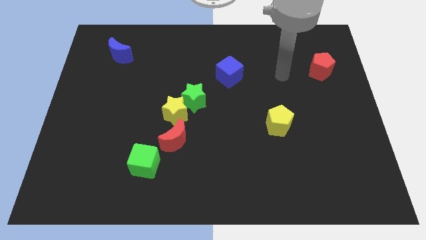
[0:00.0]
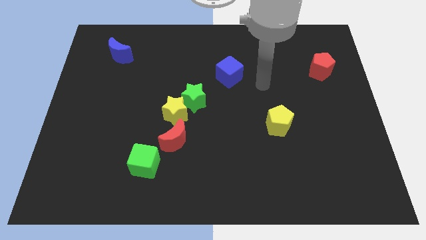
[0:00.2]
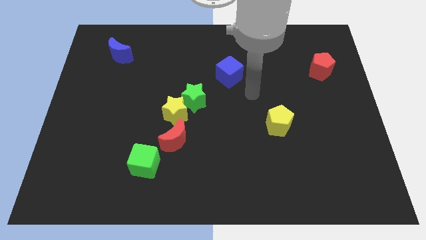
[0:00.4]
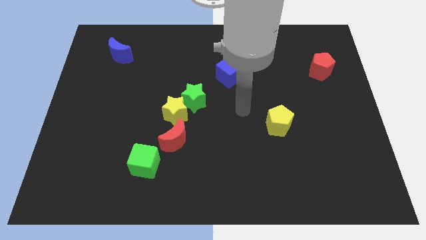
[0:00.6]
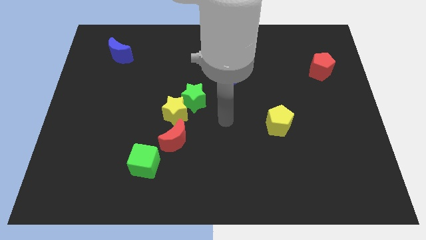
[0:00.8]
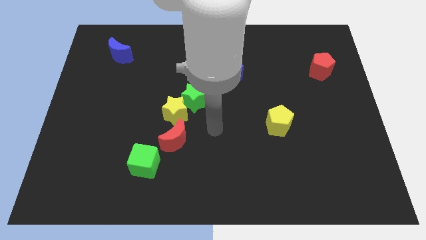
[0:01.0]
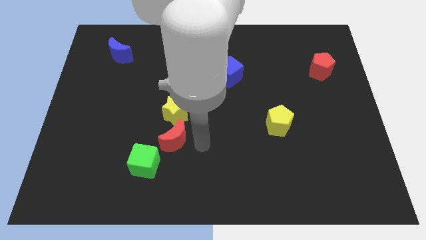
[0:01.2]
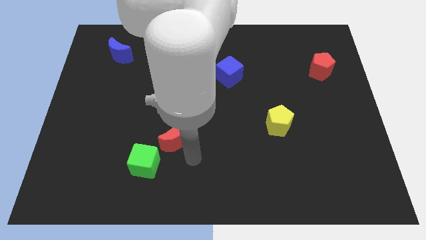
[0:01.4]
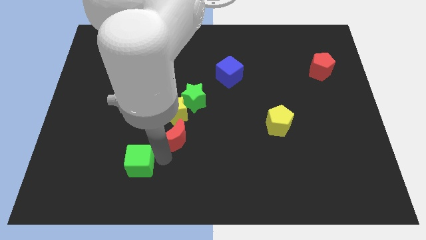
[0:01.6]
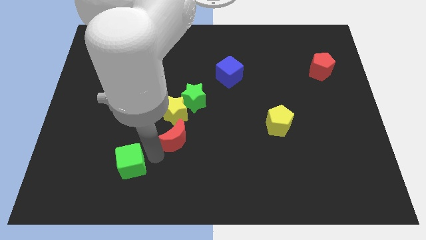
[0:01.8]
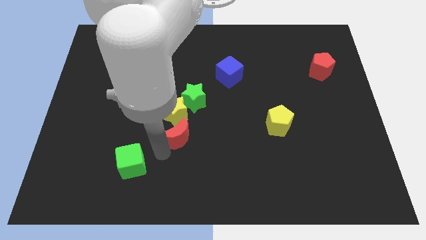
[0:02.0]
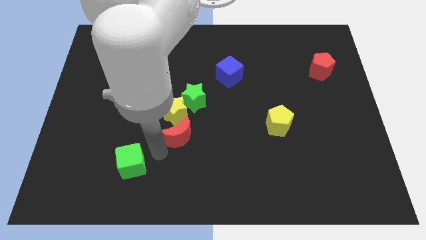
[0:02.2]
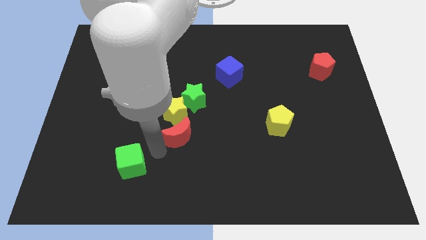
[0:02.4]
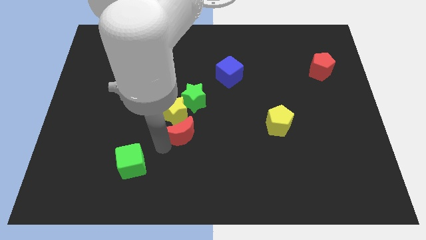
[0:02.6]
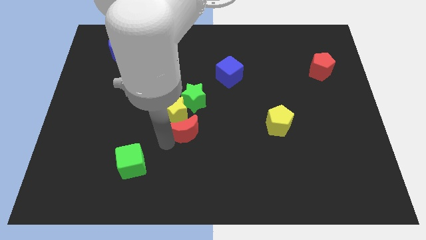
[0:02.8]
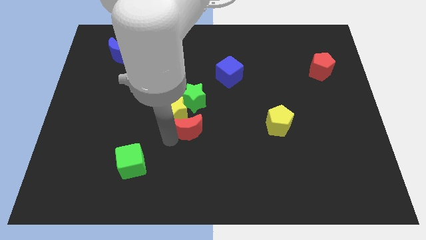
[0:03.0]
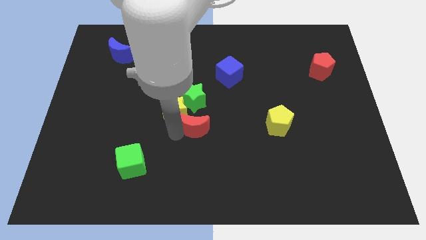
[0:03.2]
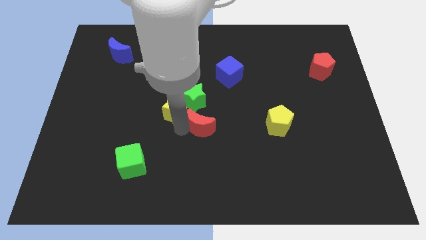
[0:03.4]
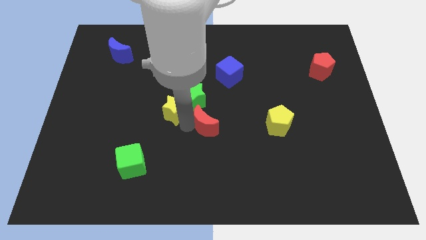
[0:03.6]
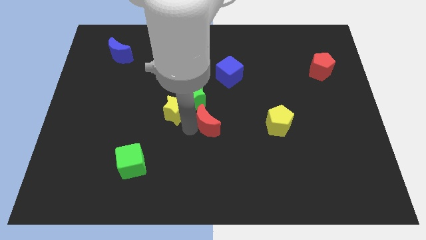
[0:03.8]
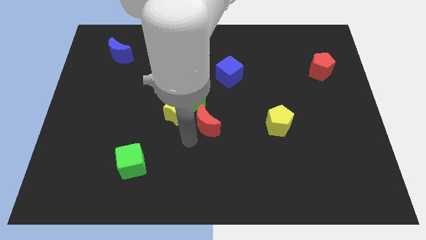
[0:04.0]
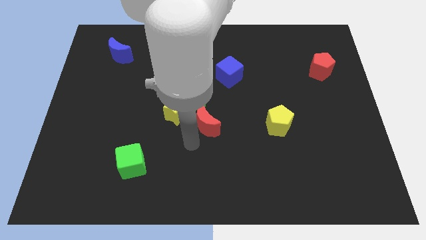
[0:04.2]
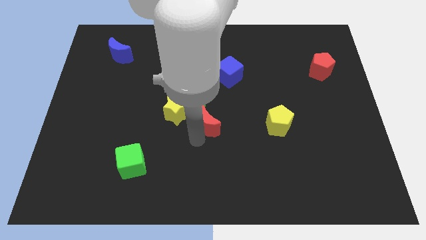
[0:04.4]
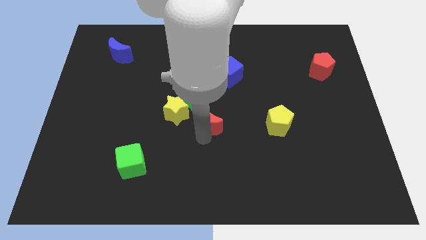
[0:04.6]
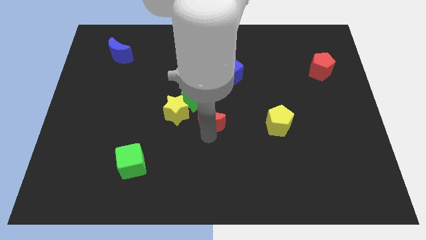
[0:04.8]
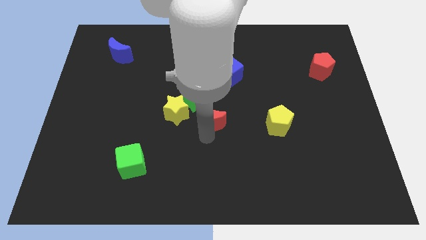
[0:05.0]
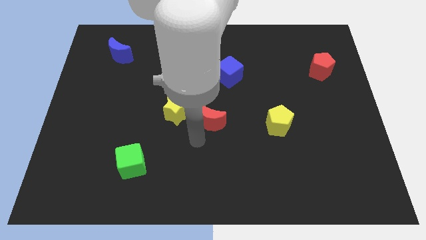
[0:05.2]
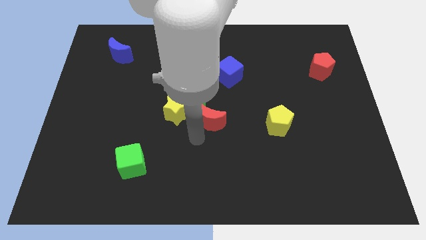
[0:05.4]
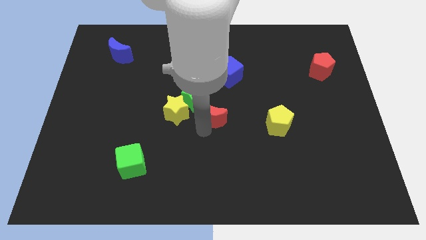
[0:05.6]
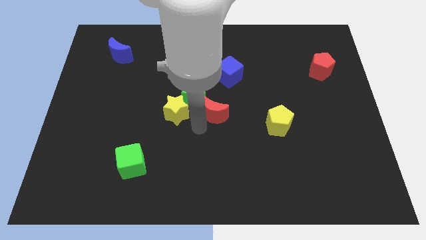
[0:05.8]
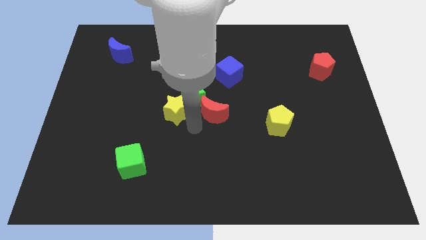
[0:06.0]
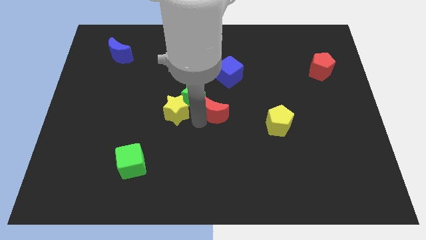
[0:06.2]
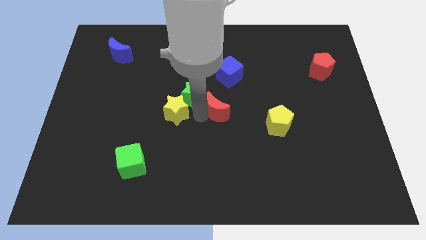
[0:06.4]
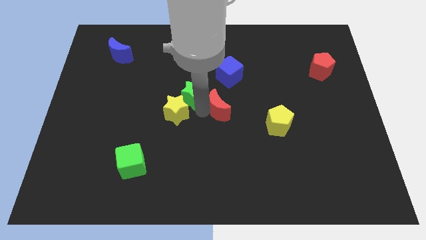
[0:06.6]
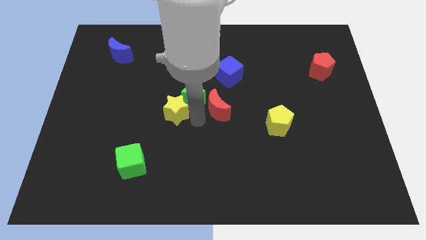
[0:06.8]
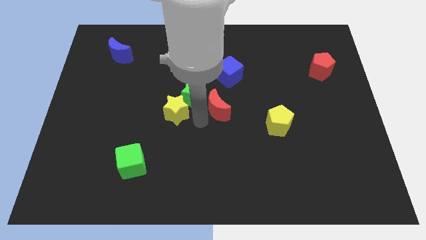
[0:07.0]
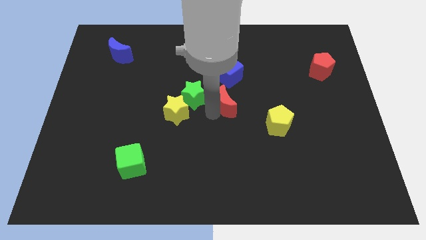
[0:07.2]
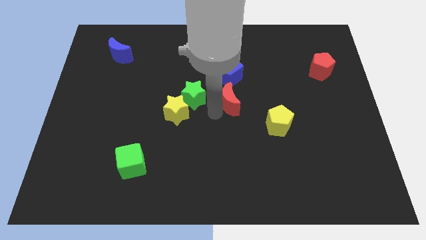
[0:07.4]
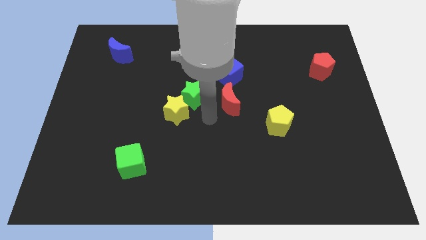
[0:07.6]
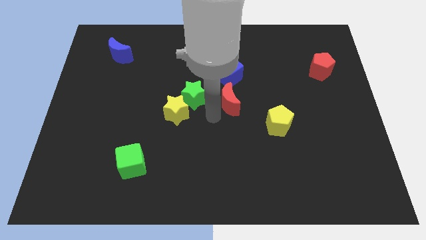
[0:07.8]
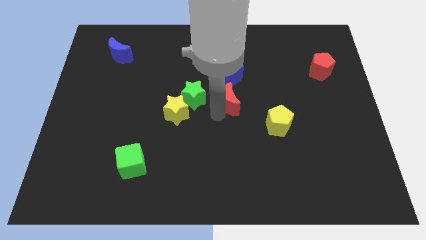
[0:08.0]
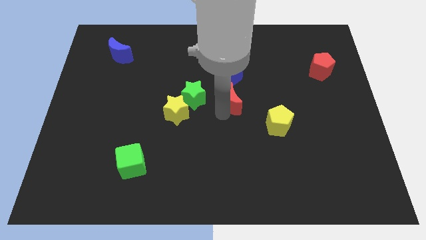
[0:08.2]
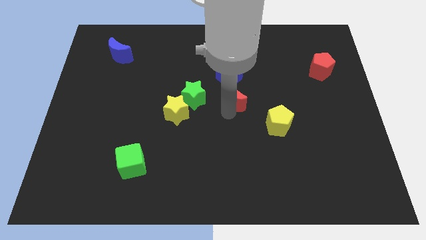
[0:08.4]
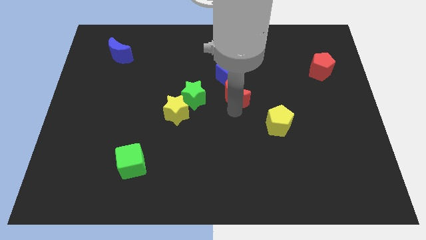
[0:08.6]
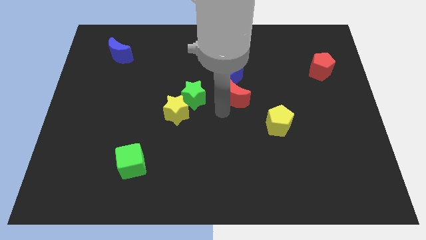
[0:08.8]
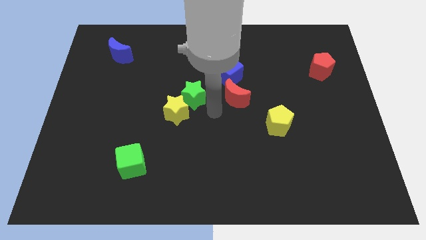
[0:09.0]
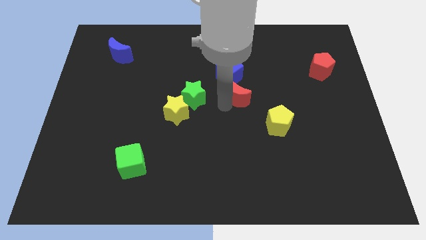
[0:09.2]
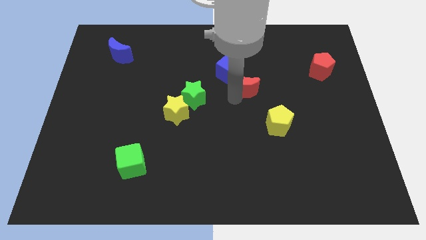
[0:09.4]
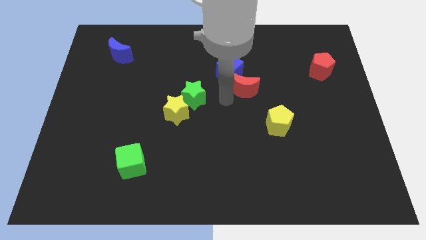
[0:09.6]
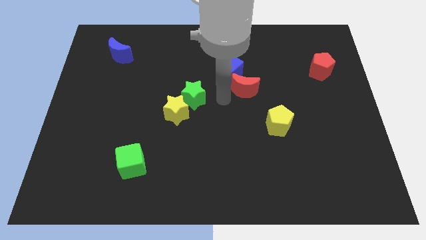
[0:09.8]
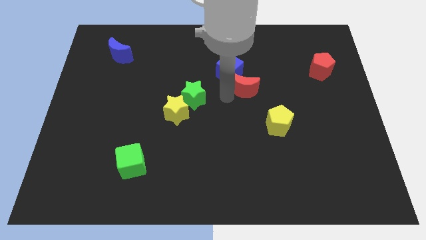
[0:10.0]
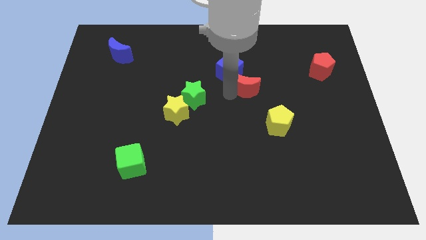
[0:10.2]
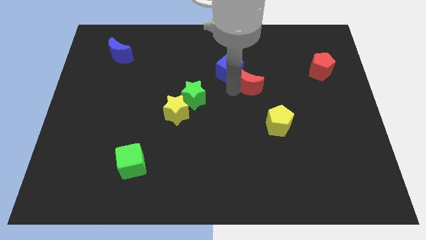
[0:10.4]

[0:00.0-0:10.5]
push the red moon just right of the blue cube

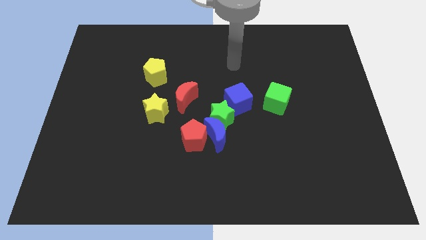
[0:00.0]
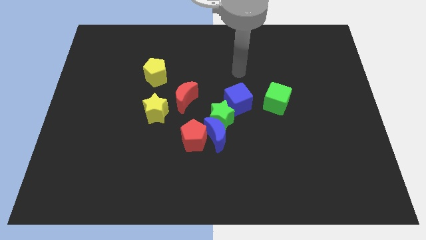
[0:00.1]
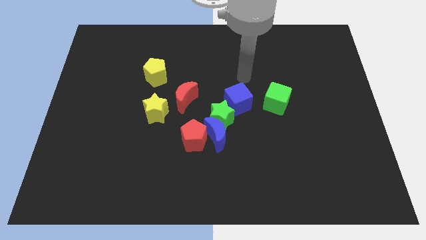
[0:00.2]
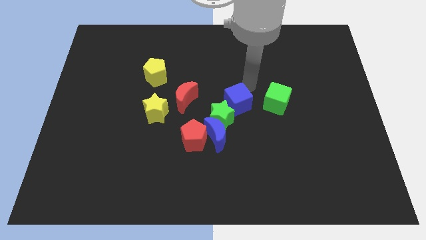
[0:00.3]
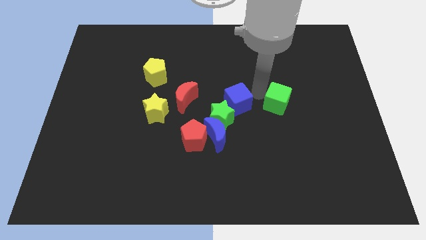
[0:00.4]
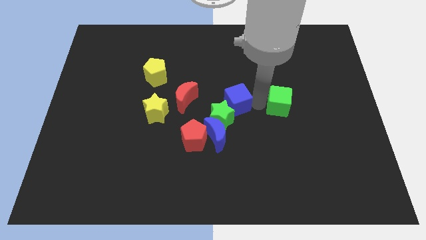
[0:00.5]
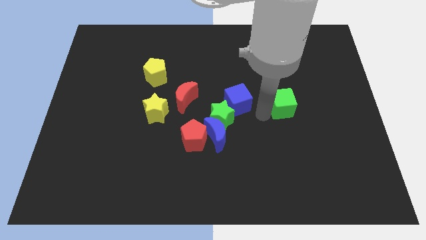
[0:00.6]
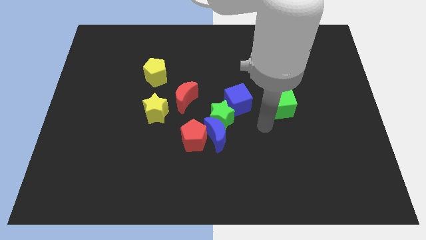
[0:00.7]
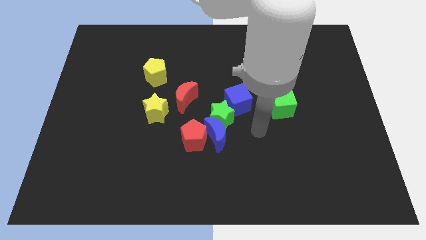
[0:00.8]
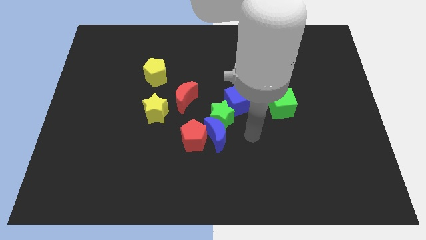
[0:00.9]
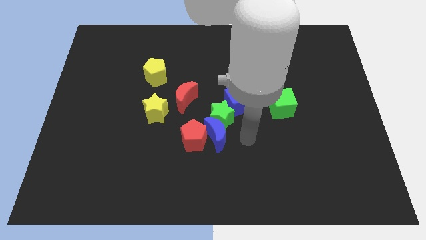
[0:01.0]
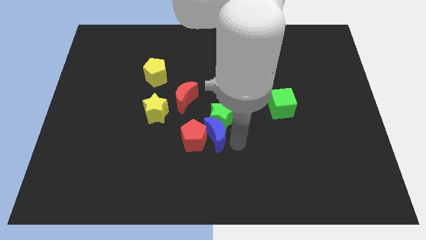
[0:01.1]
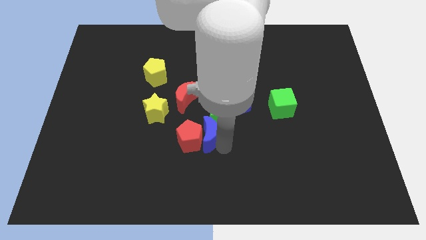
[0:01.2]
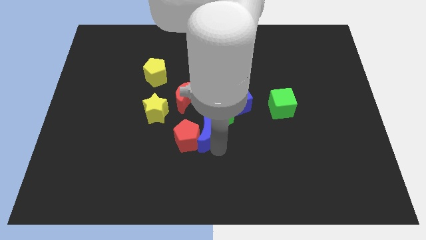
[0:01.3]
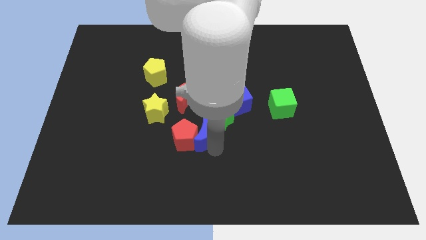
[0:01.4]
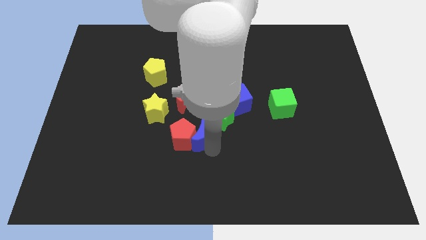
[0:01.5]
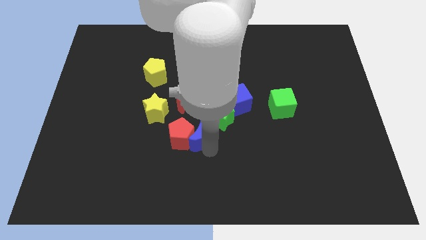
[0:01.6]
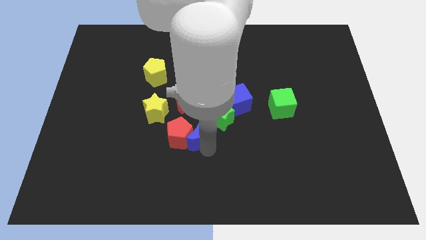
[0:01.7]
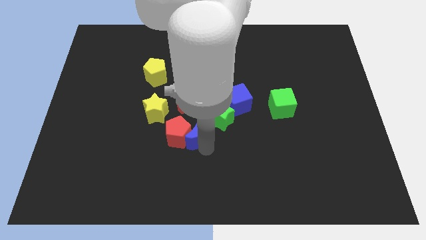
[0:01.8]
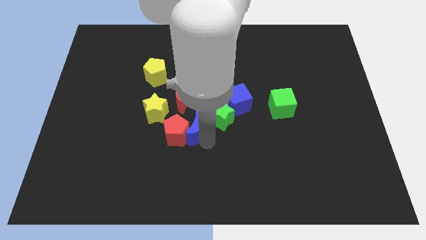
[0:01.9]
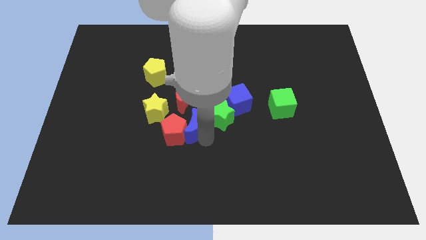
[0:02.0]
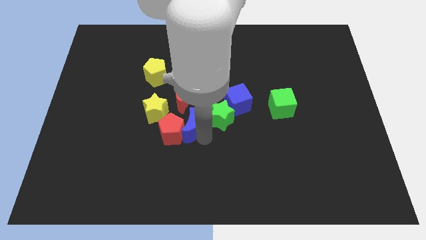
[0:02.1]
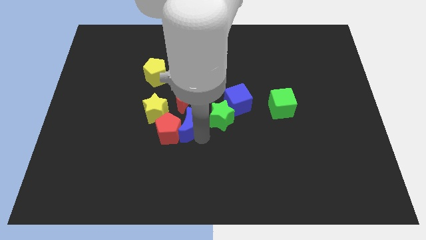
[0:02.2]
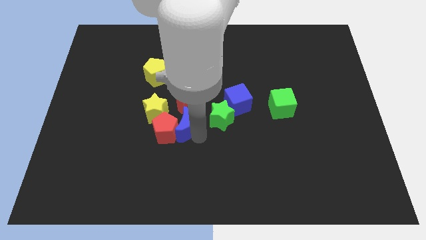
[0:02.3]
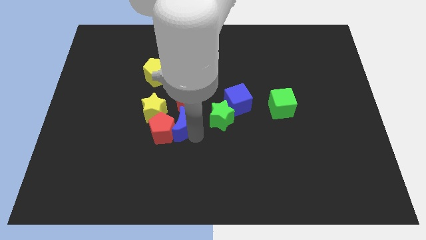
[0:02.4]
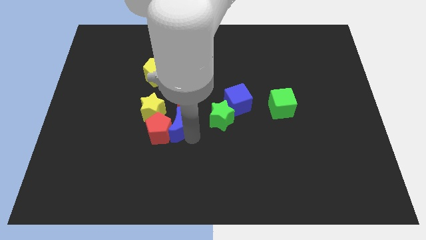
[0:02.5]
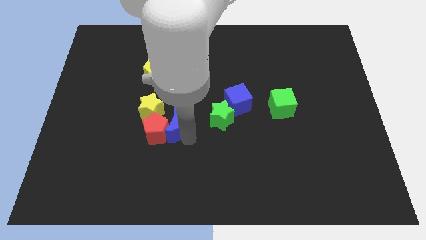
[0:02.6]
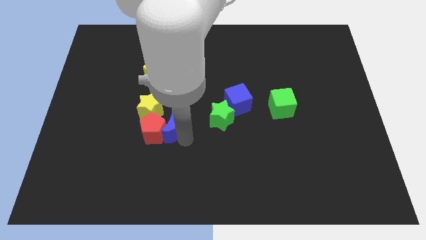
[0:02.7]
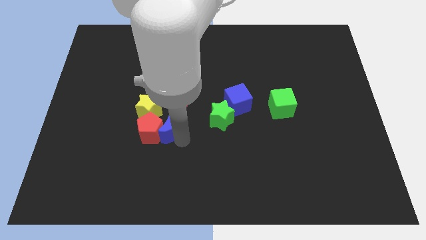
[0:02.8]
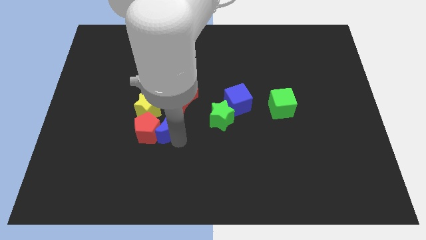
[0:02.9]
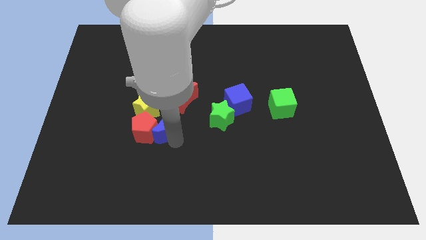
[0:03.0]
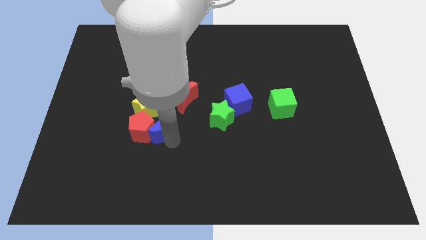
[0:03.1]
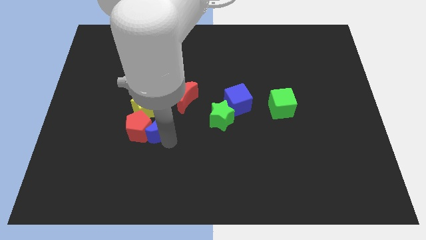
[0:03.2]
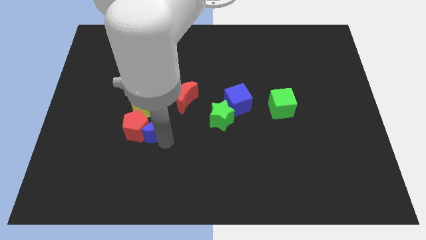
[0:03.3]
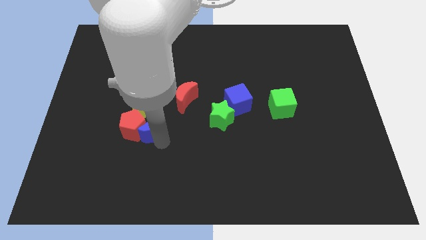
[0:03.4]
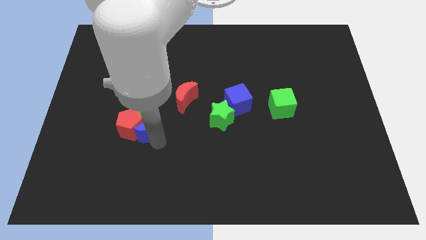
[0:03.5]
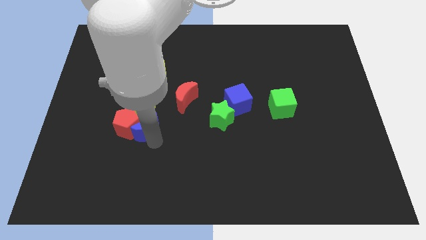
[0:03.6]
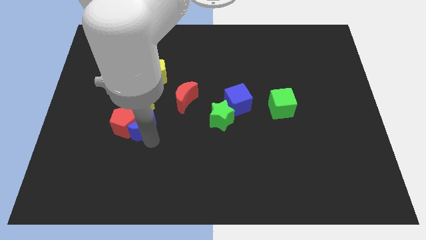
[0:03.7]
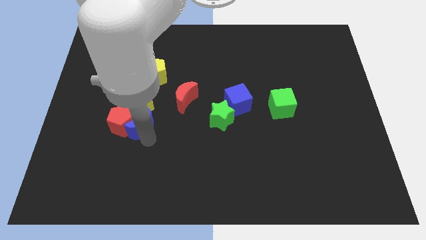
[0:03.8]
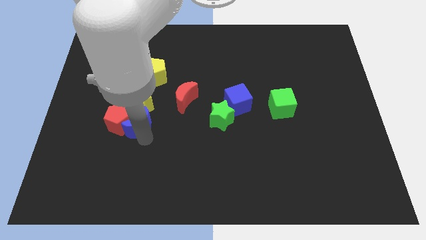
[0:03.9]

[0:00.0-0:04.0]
move the red pentagon to the left of the yellow star
